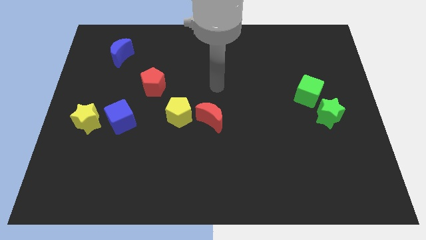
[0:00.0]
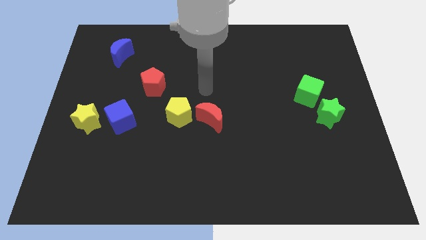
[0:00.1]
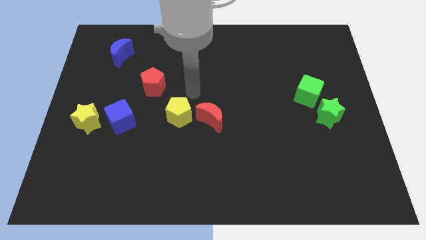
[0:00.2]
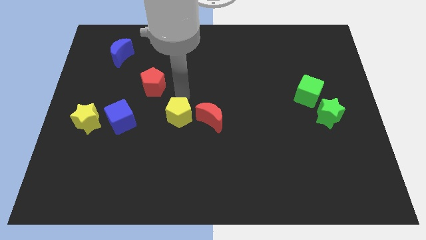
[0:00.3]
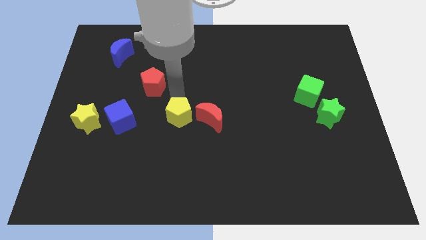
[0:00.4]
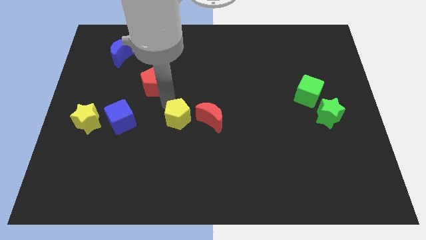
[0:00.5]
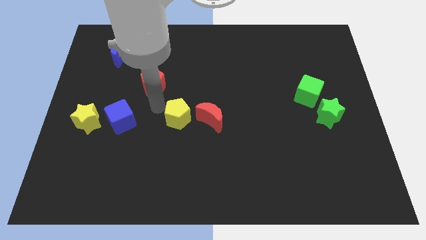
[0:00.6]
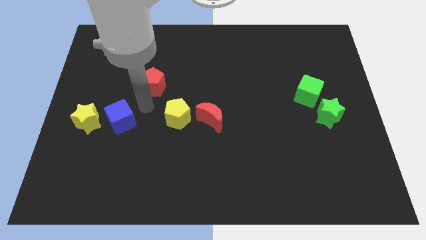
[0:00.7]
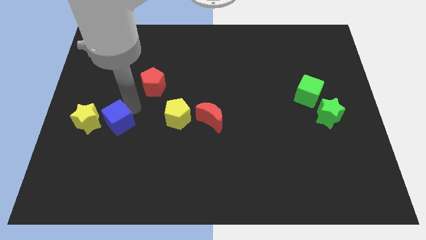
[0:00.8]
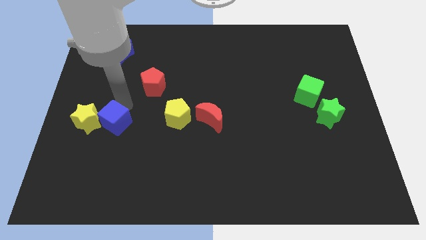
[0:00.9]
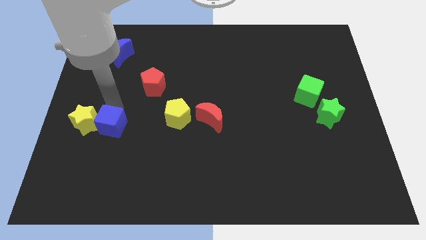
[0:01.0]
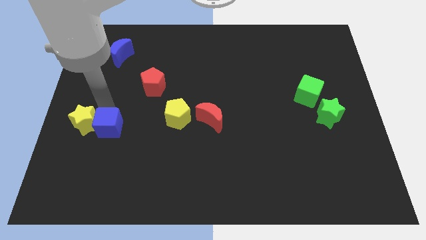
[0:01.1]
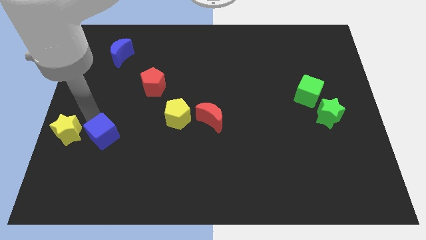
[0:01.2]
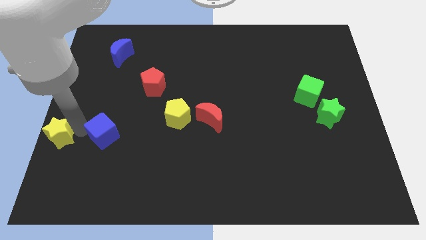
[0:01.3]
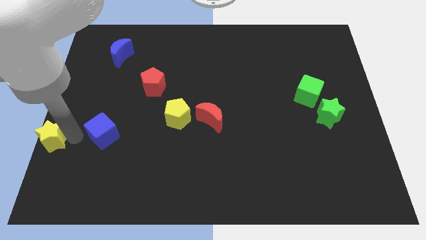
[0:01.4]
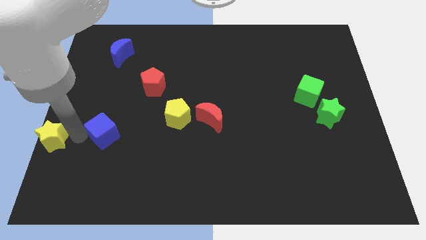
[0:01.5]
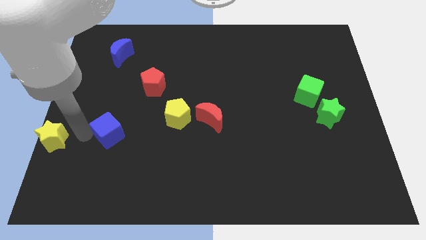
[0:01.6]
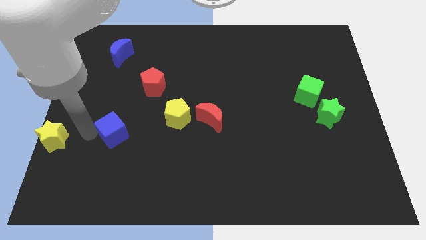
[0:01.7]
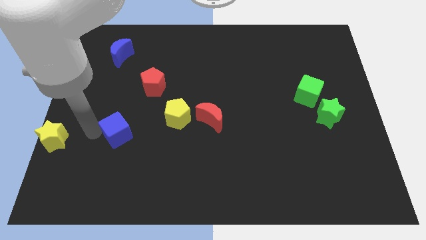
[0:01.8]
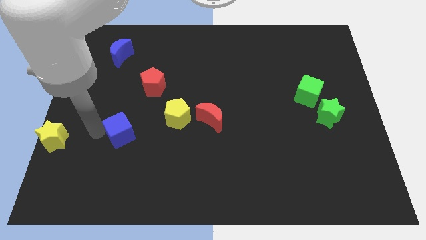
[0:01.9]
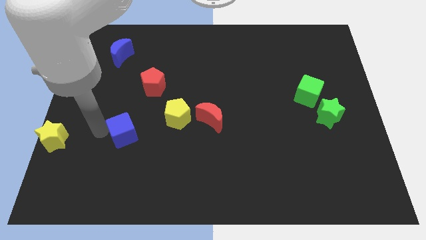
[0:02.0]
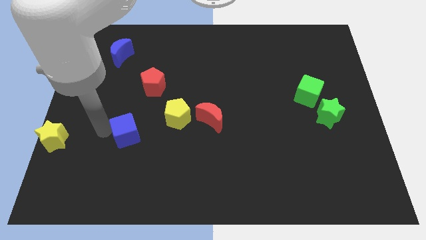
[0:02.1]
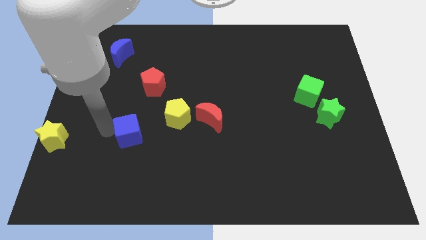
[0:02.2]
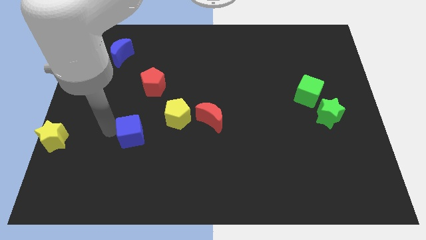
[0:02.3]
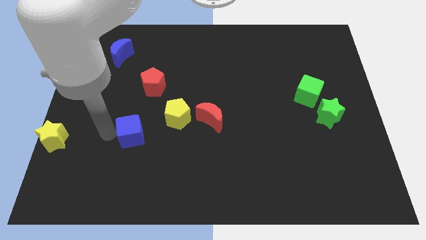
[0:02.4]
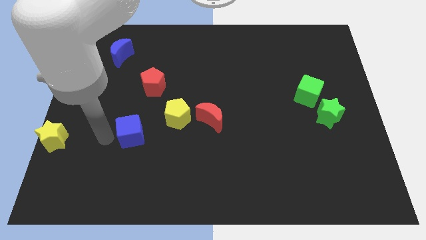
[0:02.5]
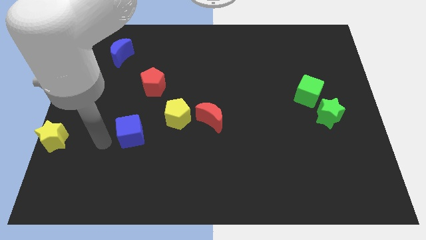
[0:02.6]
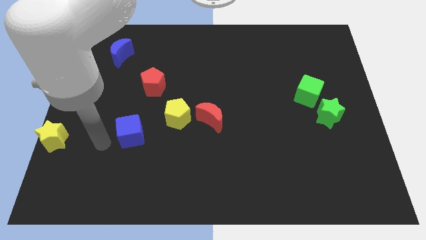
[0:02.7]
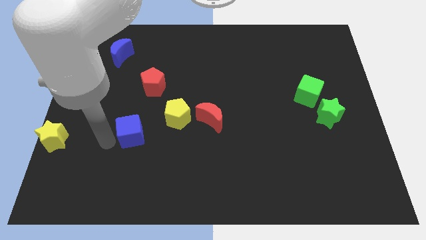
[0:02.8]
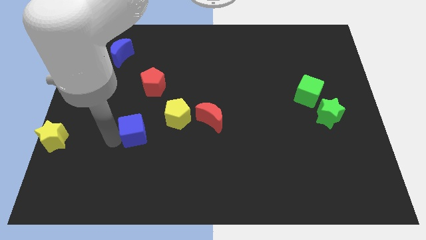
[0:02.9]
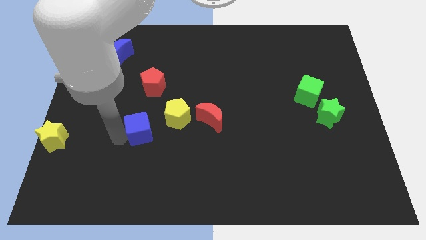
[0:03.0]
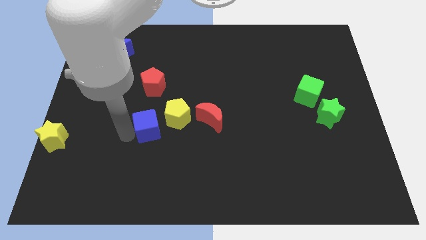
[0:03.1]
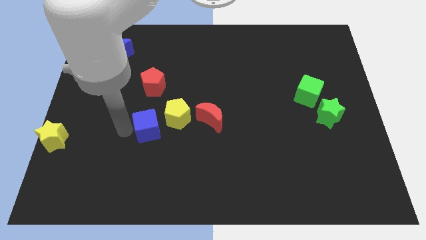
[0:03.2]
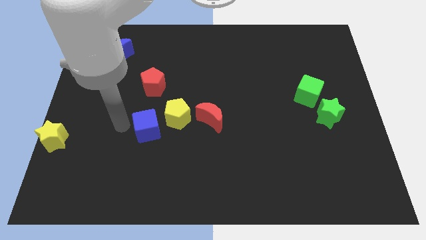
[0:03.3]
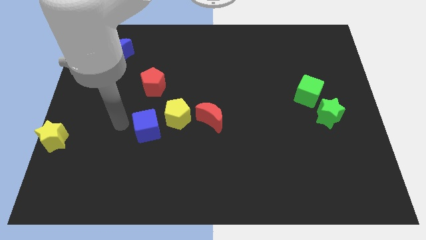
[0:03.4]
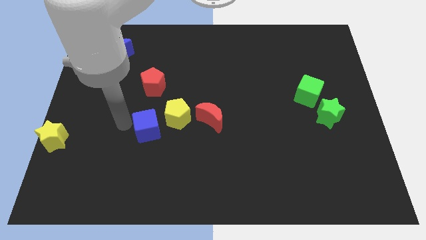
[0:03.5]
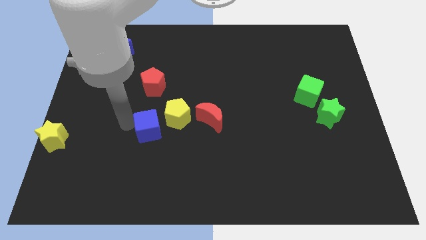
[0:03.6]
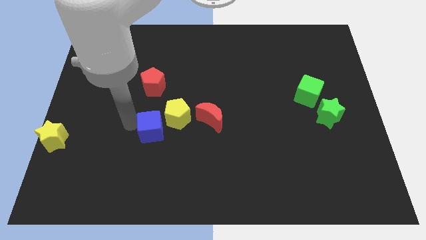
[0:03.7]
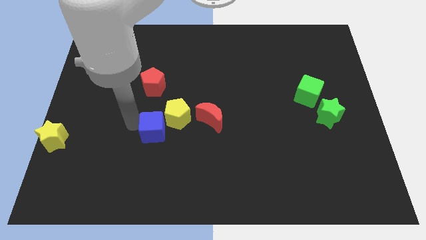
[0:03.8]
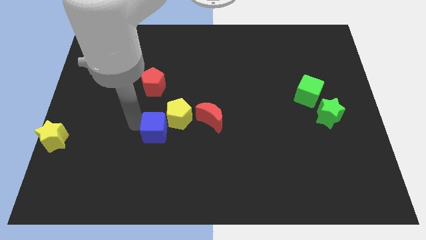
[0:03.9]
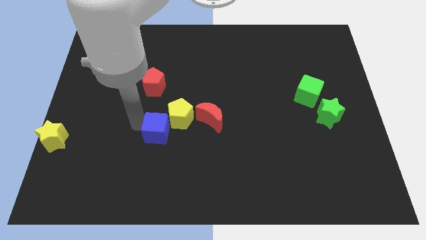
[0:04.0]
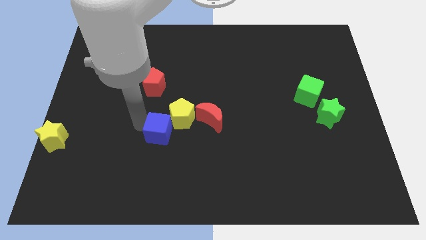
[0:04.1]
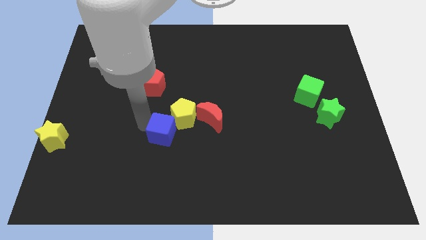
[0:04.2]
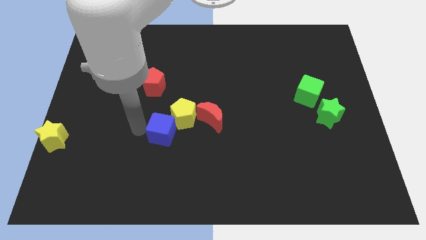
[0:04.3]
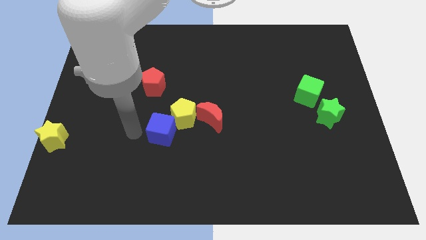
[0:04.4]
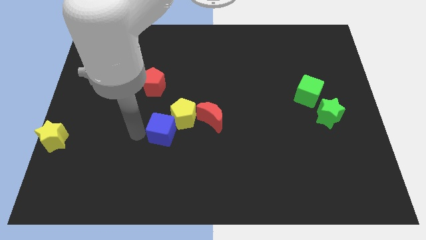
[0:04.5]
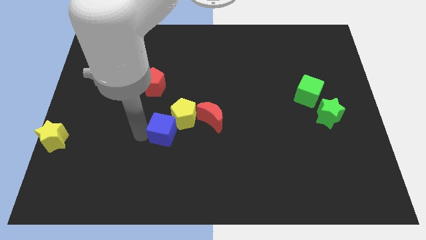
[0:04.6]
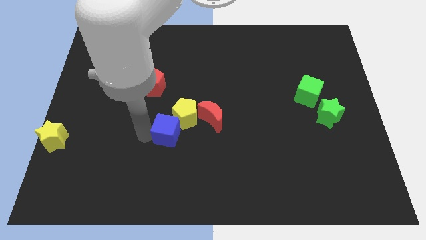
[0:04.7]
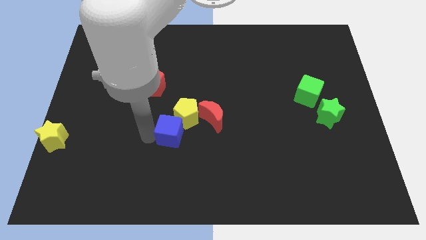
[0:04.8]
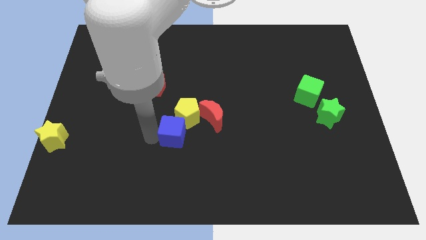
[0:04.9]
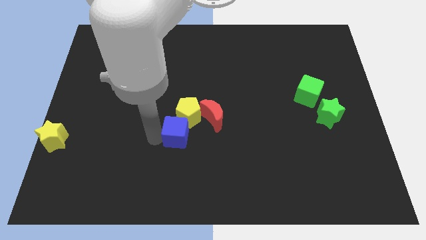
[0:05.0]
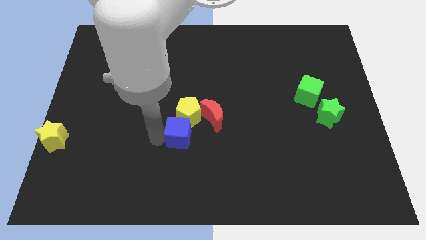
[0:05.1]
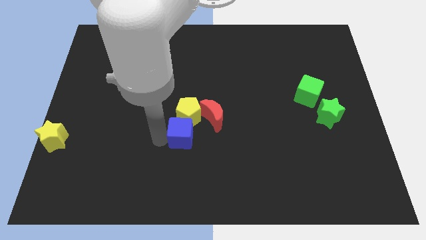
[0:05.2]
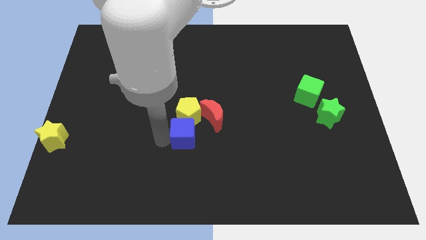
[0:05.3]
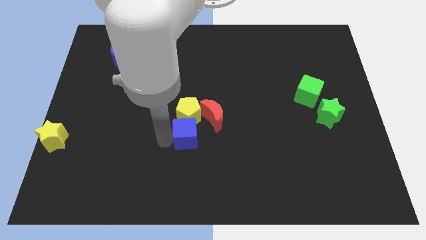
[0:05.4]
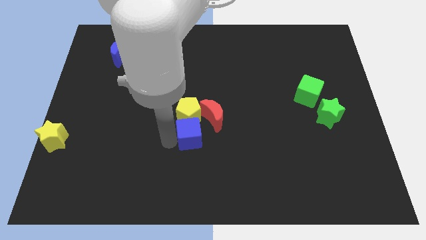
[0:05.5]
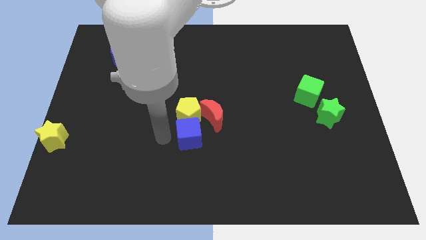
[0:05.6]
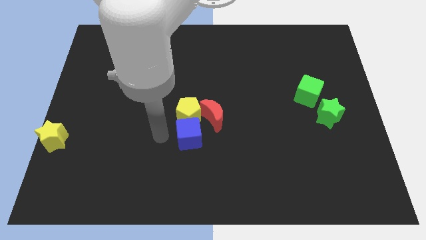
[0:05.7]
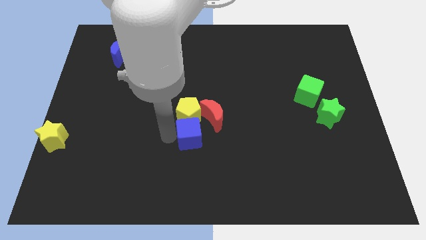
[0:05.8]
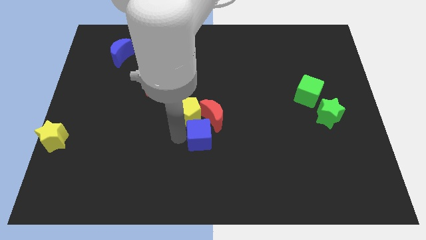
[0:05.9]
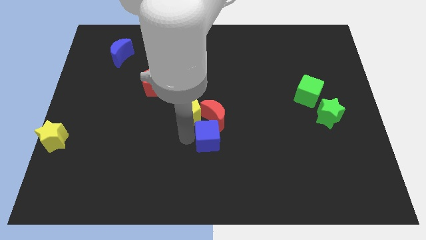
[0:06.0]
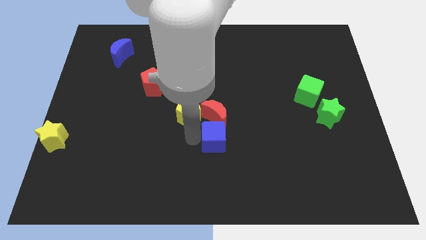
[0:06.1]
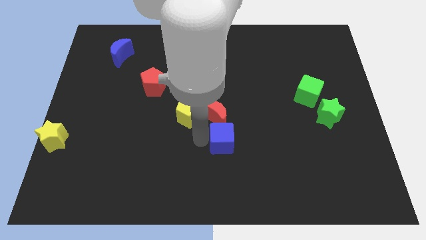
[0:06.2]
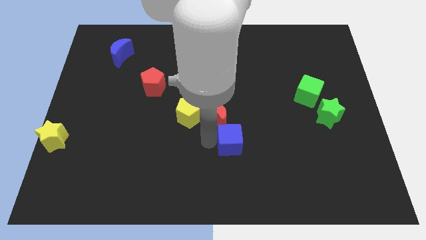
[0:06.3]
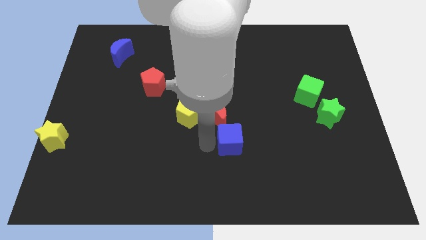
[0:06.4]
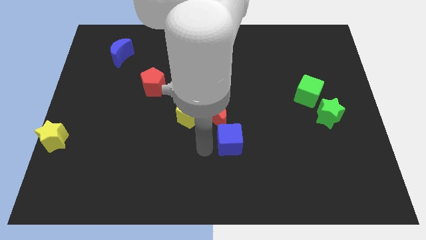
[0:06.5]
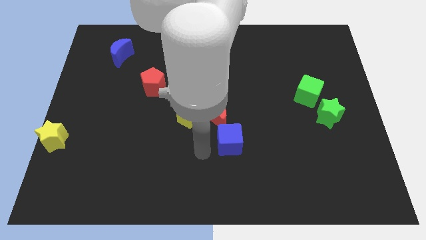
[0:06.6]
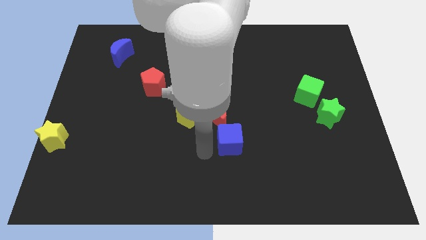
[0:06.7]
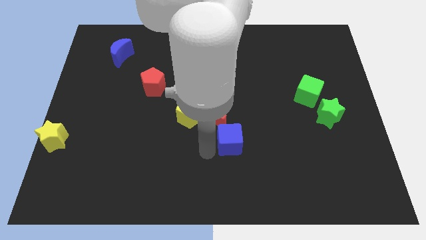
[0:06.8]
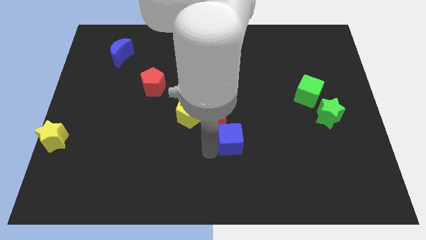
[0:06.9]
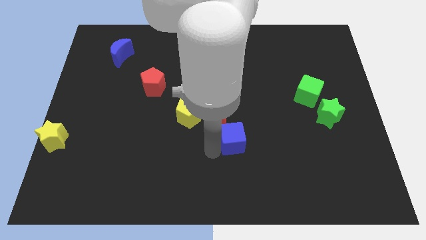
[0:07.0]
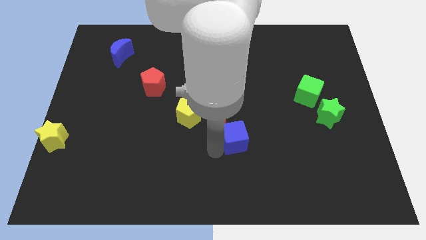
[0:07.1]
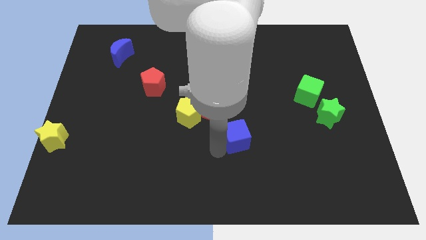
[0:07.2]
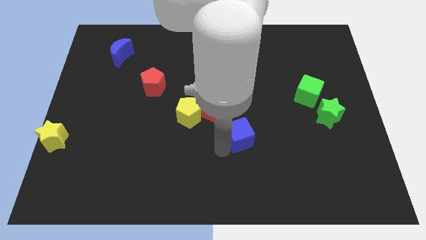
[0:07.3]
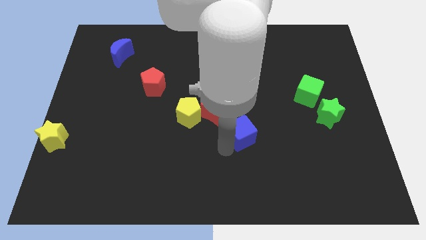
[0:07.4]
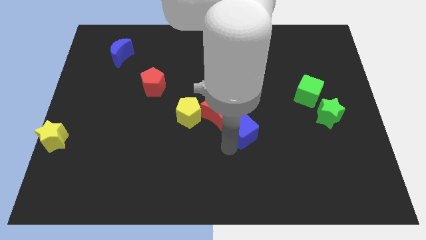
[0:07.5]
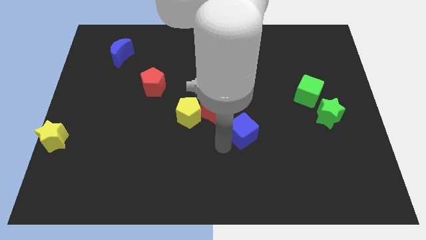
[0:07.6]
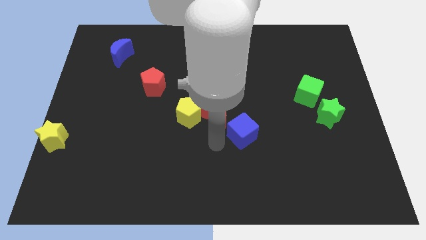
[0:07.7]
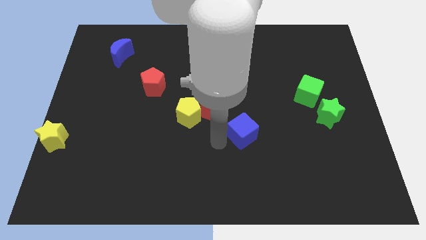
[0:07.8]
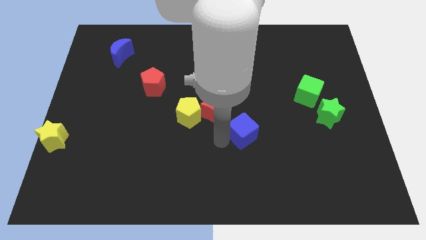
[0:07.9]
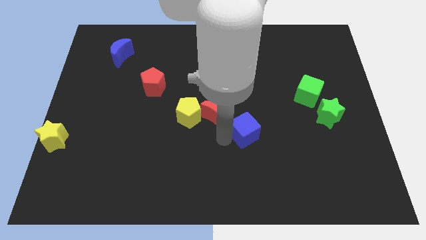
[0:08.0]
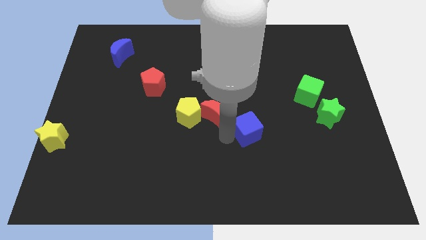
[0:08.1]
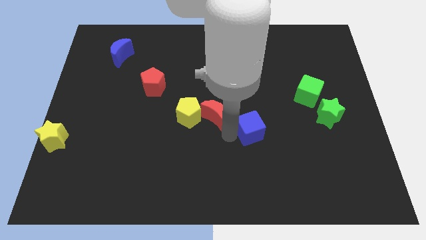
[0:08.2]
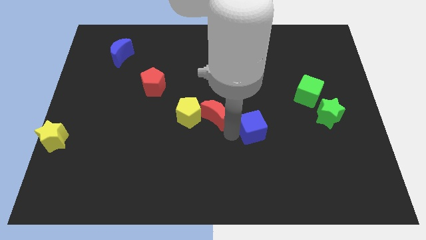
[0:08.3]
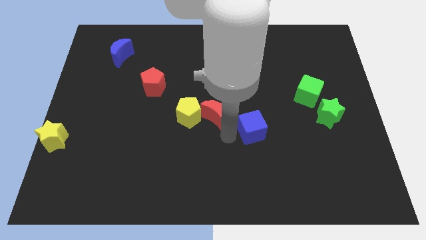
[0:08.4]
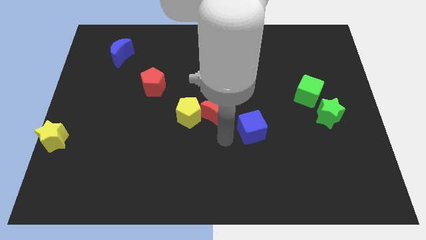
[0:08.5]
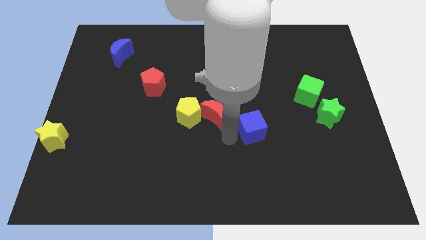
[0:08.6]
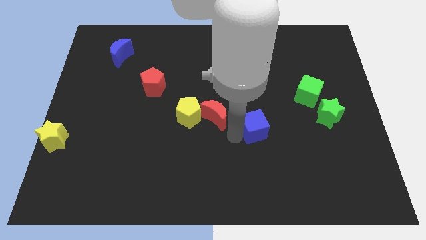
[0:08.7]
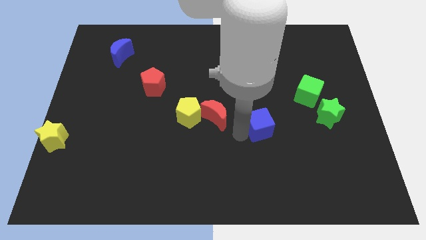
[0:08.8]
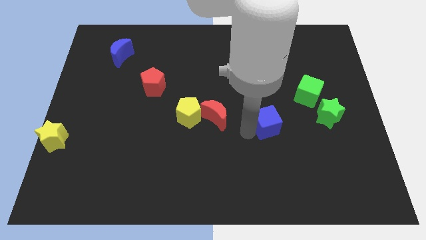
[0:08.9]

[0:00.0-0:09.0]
put the blue cube to the left of the green star
